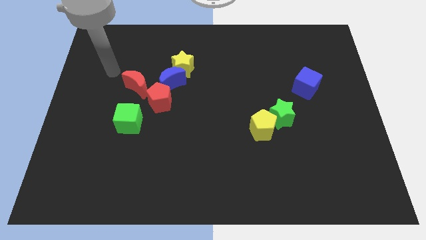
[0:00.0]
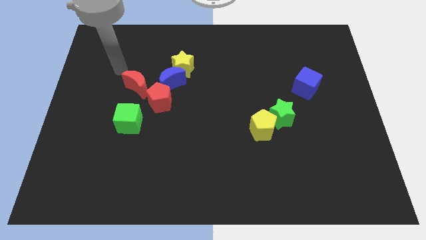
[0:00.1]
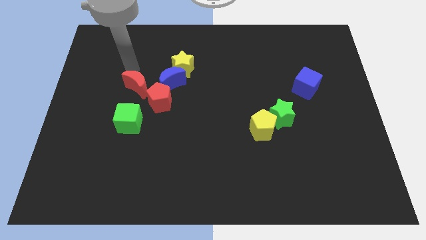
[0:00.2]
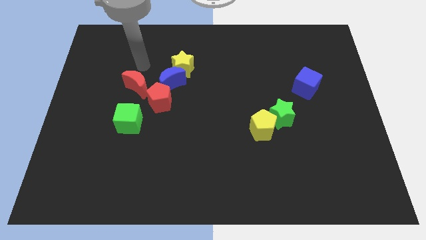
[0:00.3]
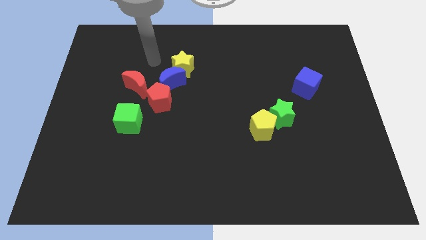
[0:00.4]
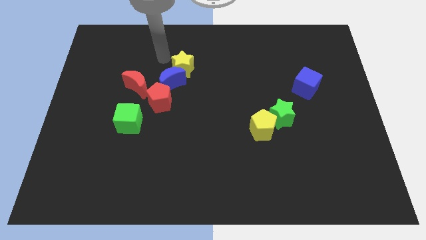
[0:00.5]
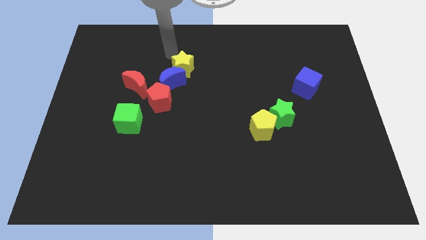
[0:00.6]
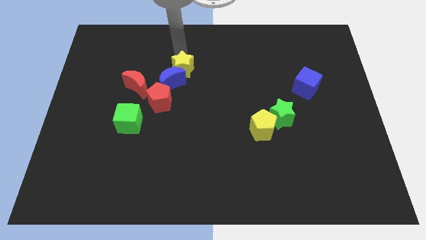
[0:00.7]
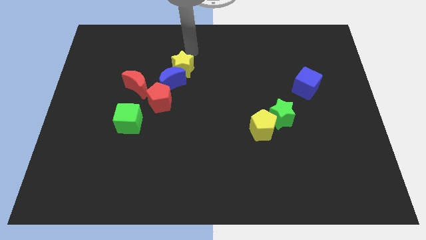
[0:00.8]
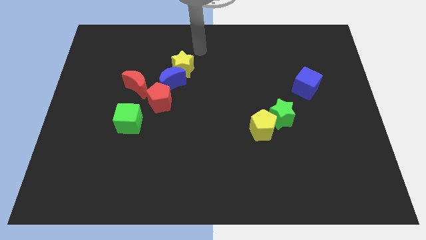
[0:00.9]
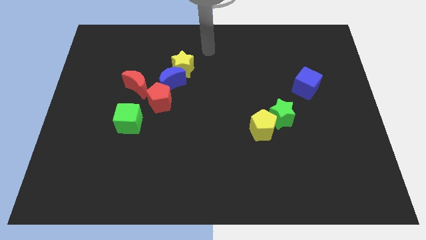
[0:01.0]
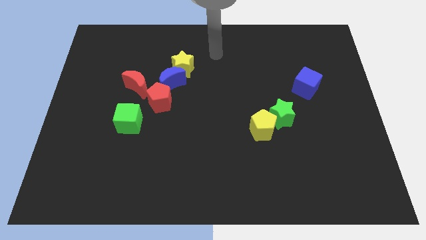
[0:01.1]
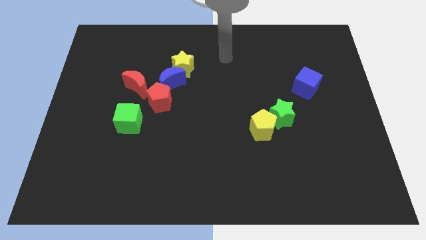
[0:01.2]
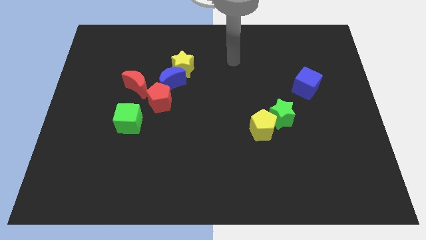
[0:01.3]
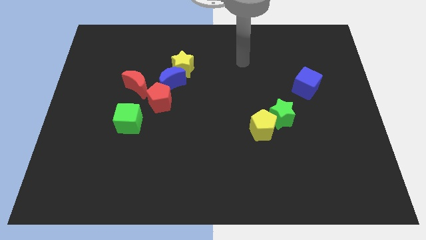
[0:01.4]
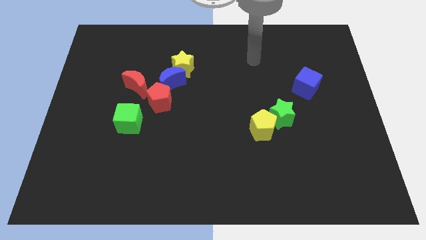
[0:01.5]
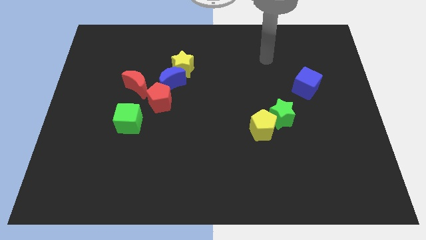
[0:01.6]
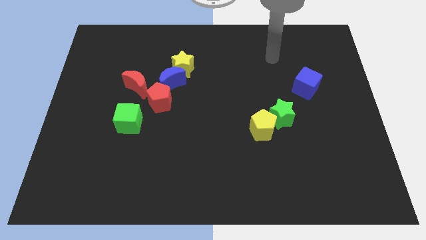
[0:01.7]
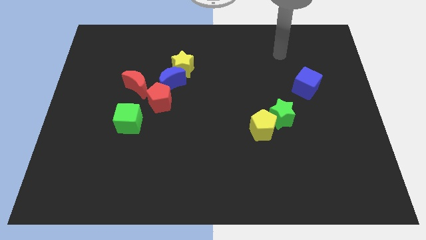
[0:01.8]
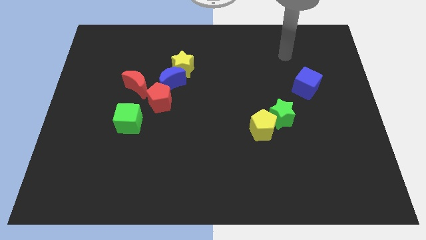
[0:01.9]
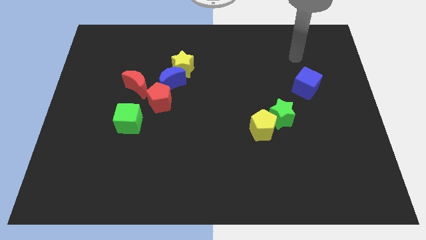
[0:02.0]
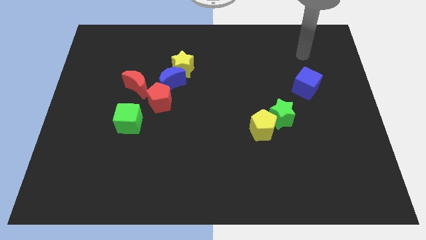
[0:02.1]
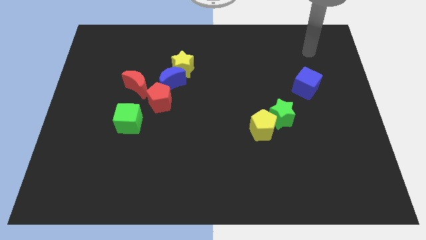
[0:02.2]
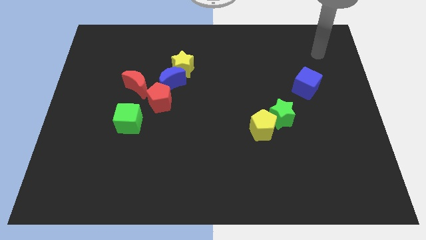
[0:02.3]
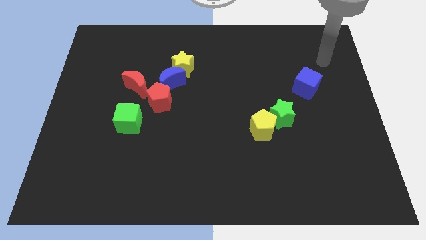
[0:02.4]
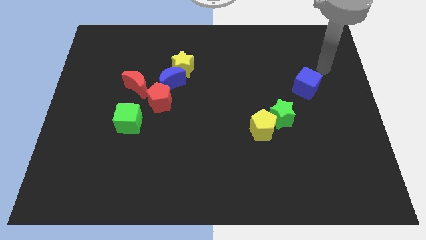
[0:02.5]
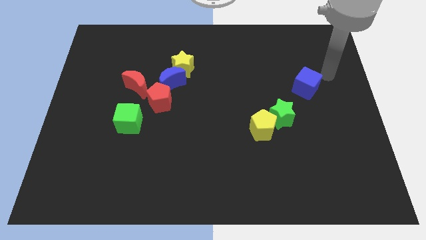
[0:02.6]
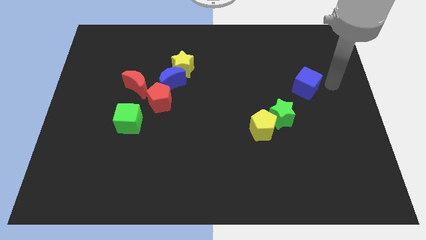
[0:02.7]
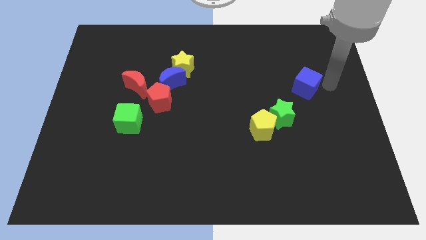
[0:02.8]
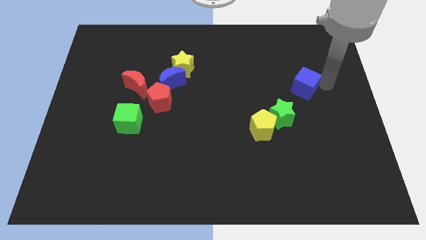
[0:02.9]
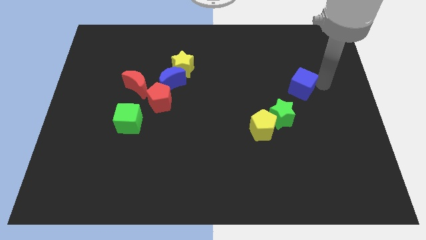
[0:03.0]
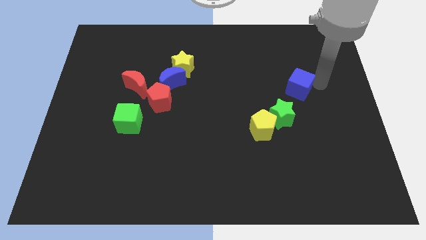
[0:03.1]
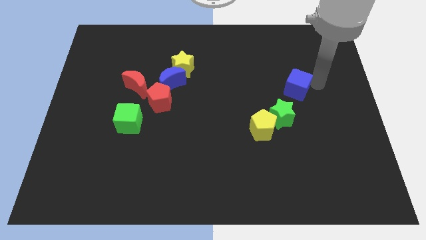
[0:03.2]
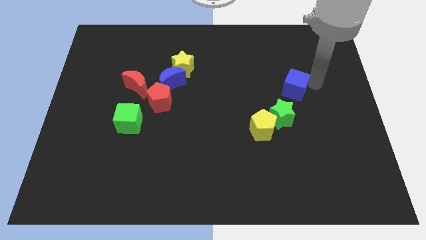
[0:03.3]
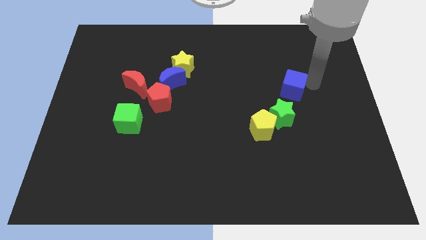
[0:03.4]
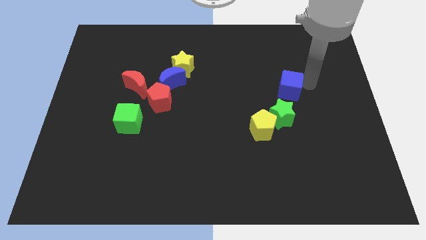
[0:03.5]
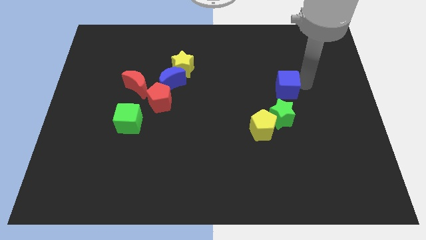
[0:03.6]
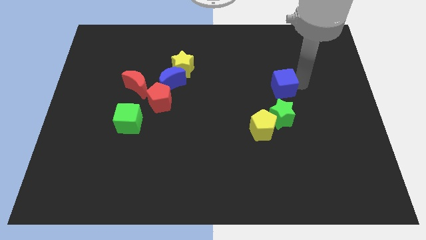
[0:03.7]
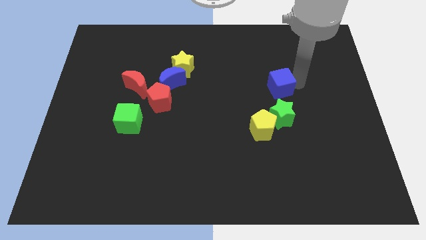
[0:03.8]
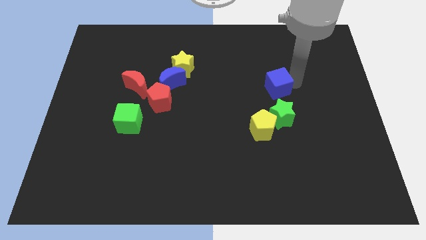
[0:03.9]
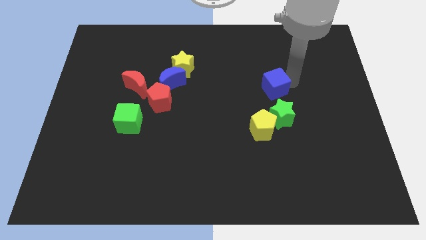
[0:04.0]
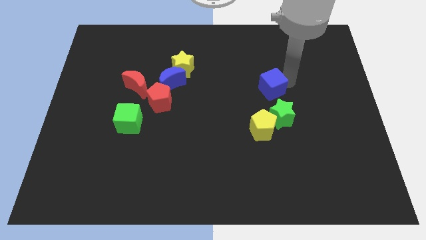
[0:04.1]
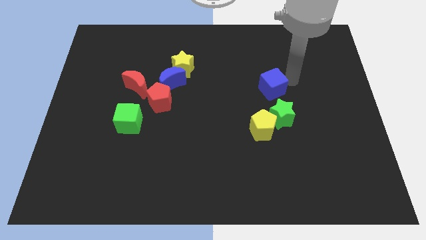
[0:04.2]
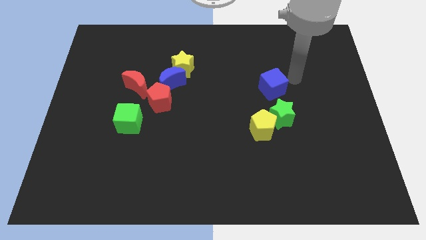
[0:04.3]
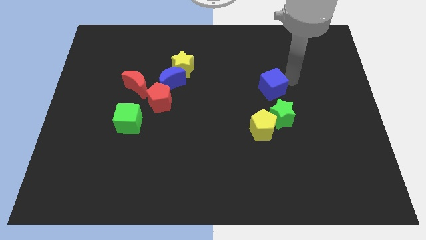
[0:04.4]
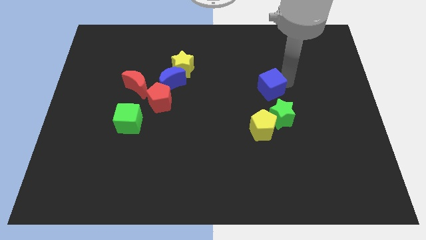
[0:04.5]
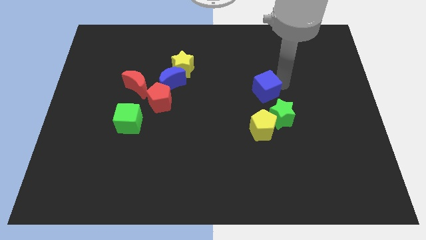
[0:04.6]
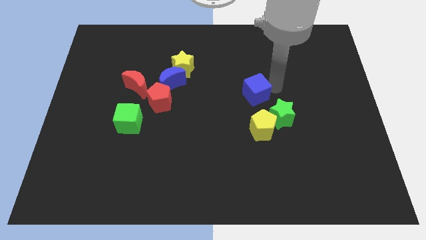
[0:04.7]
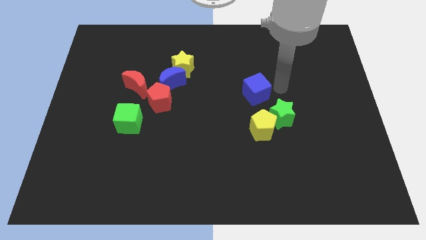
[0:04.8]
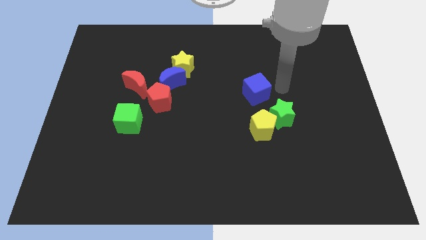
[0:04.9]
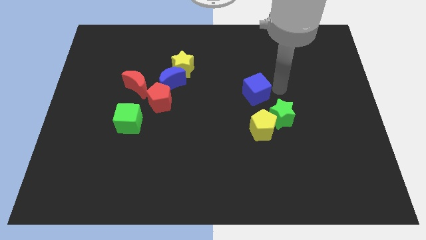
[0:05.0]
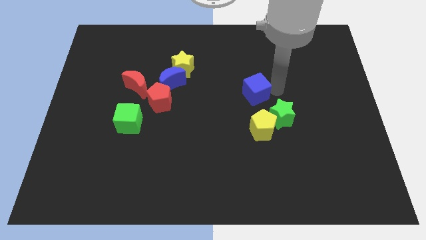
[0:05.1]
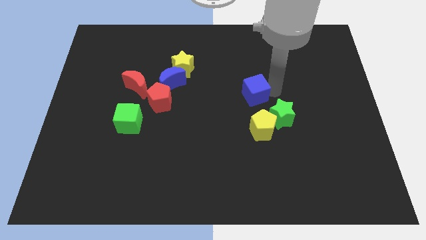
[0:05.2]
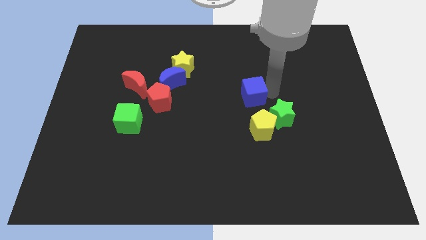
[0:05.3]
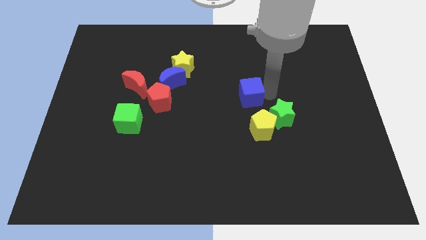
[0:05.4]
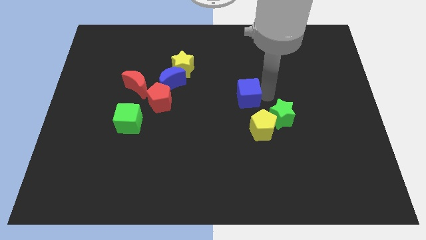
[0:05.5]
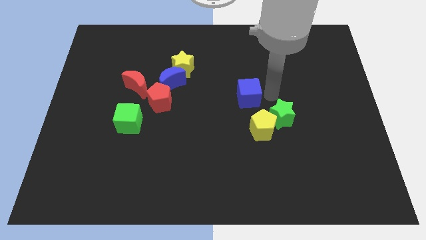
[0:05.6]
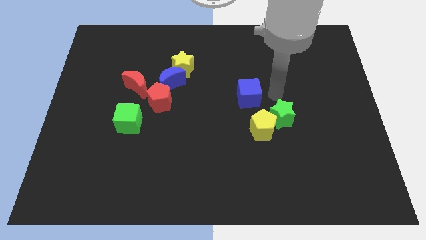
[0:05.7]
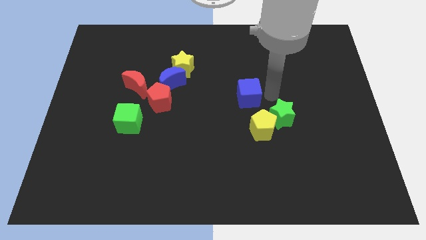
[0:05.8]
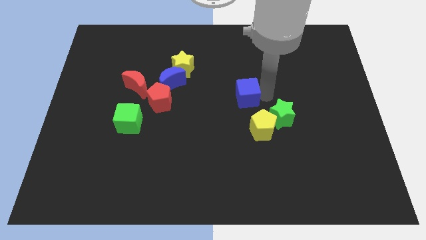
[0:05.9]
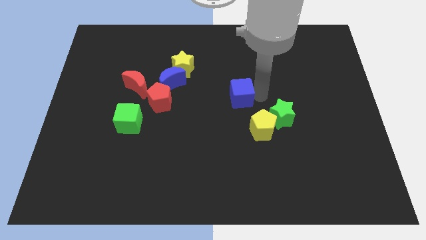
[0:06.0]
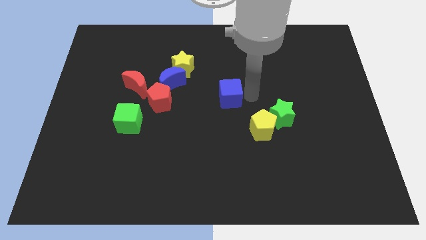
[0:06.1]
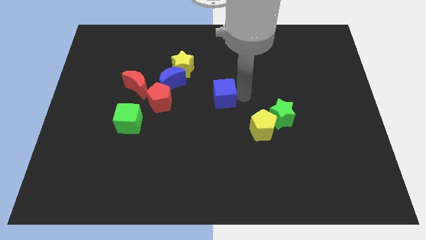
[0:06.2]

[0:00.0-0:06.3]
slide the blue cube just right of the red pentagon
